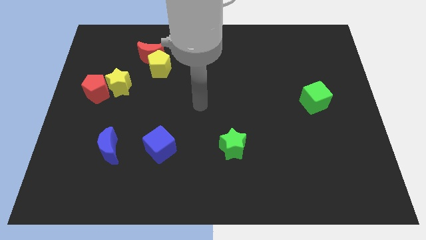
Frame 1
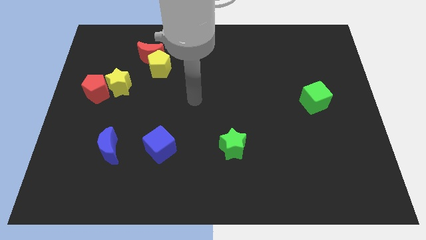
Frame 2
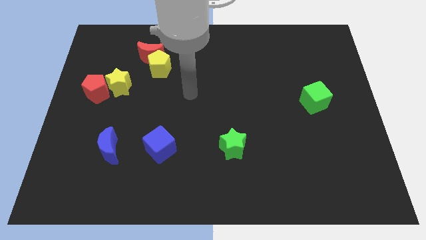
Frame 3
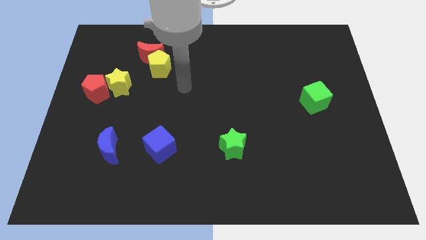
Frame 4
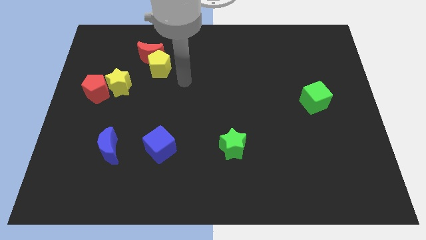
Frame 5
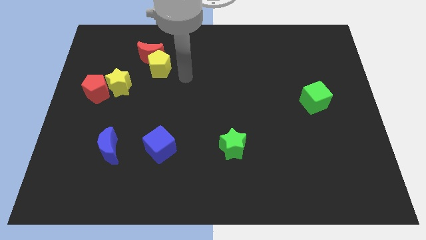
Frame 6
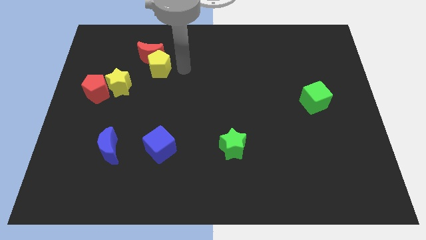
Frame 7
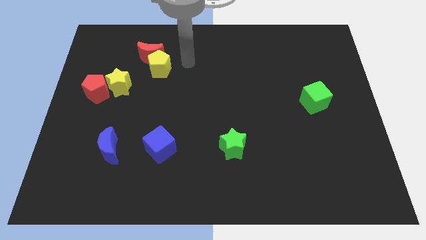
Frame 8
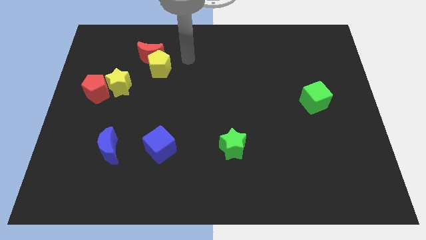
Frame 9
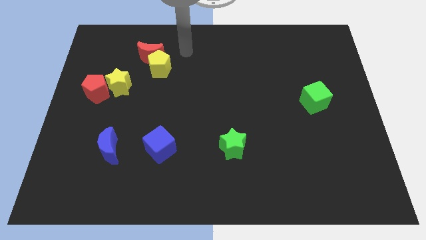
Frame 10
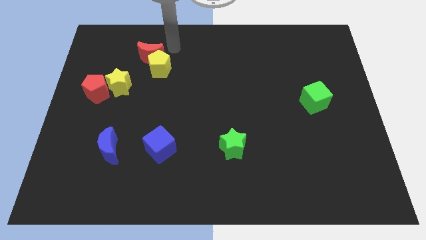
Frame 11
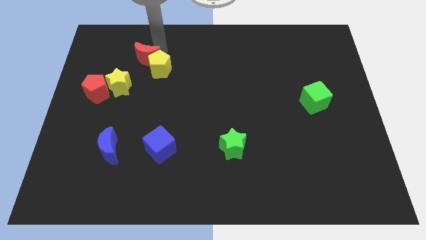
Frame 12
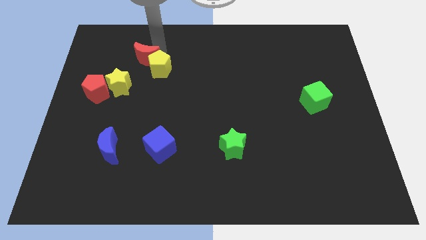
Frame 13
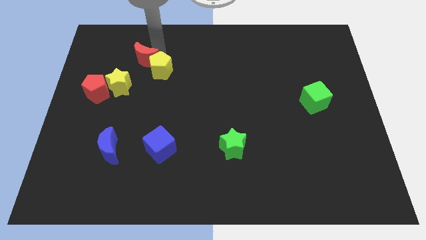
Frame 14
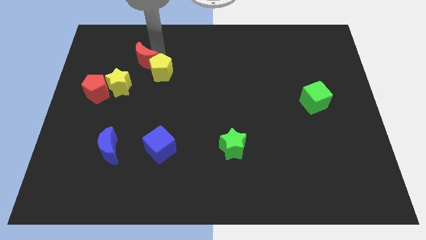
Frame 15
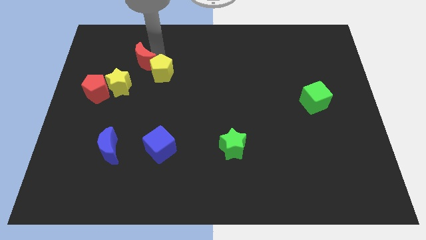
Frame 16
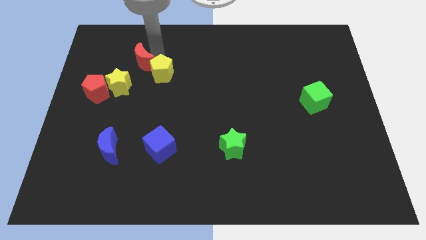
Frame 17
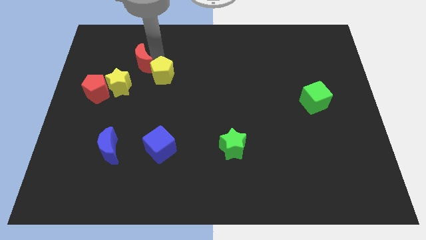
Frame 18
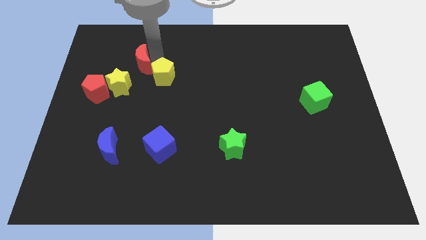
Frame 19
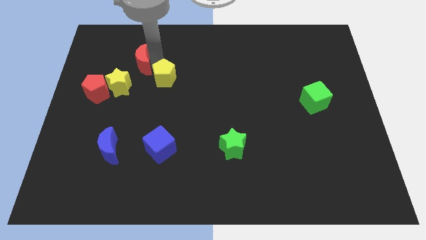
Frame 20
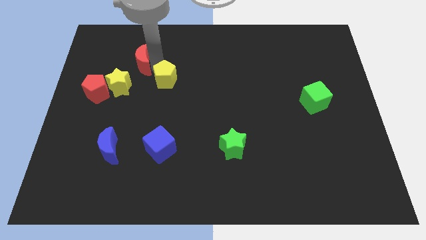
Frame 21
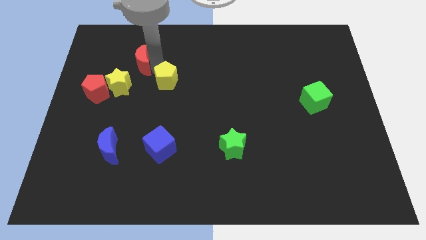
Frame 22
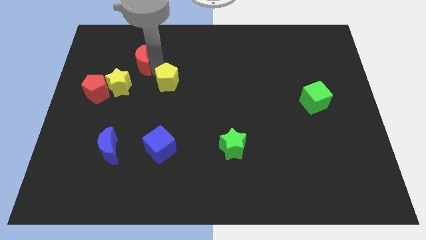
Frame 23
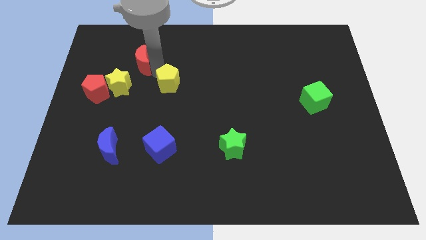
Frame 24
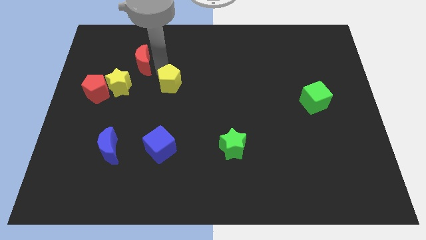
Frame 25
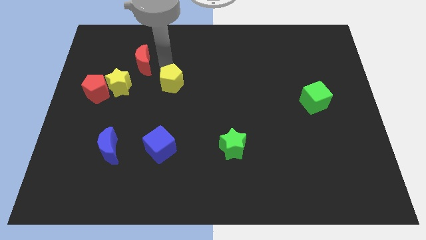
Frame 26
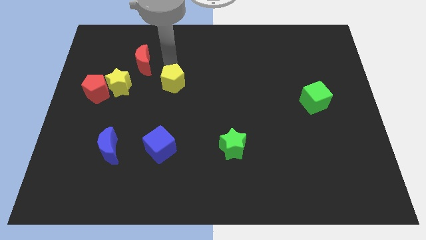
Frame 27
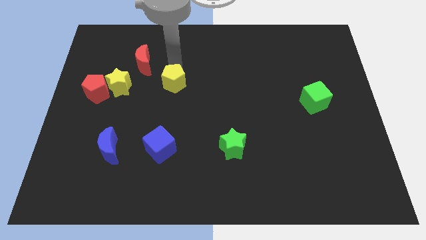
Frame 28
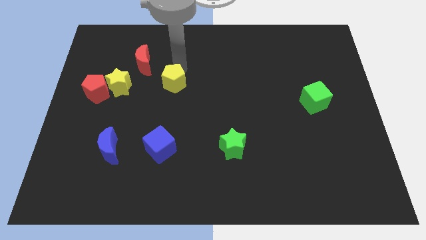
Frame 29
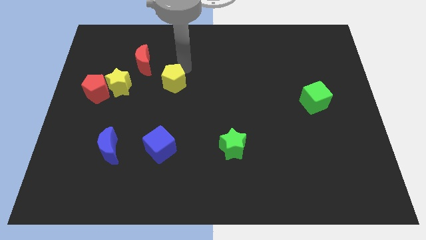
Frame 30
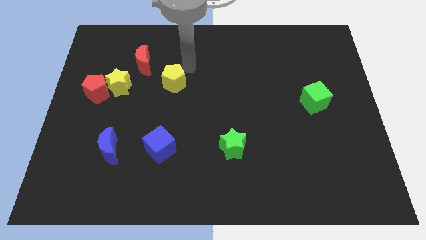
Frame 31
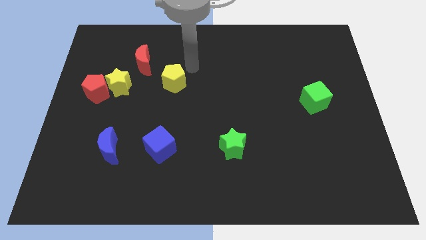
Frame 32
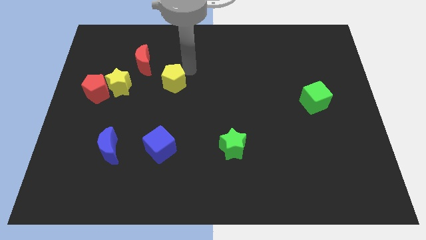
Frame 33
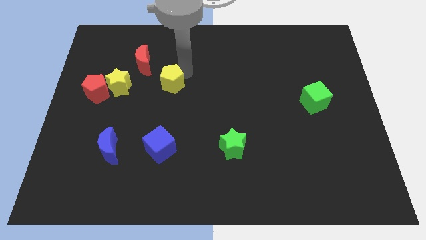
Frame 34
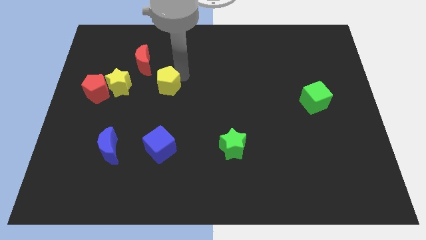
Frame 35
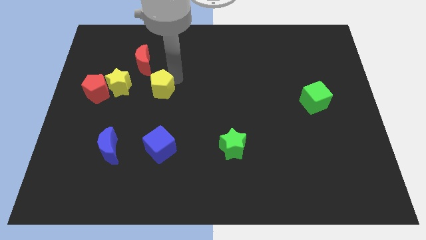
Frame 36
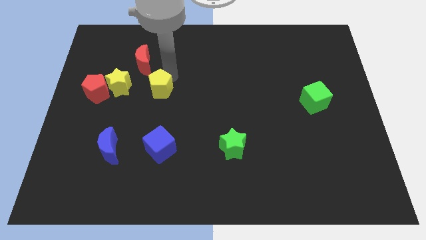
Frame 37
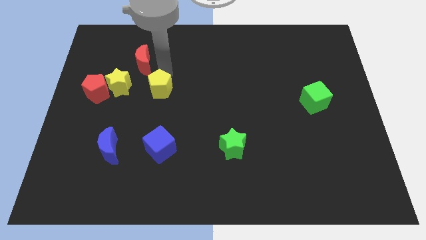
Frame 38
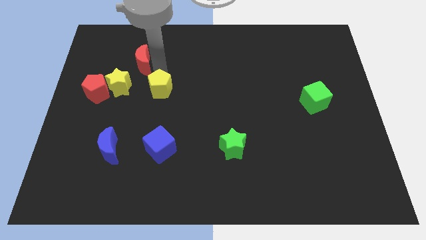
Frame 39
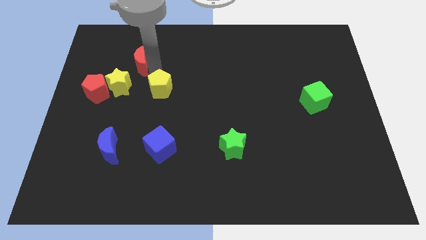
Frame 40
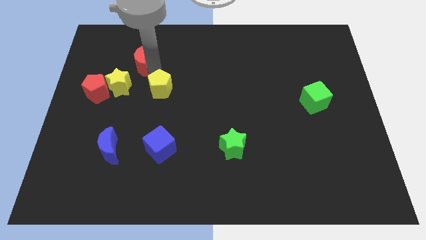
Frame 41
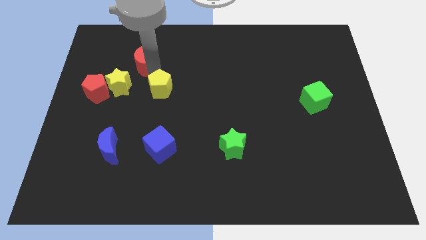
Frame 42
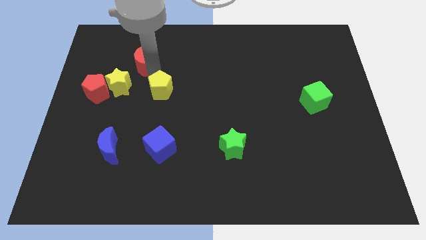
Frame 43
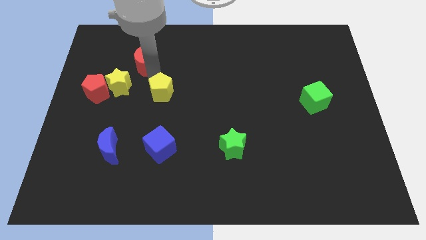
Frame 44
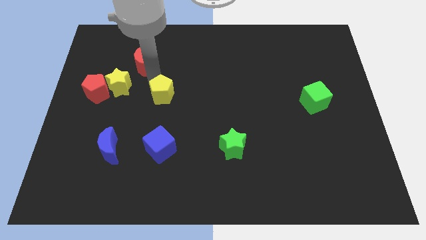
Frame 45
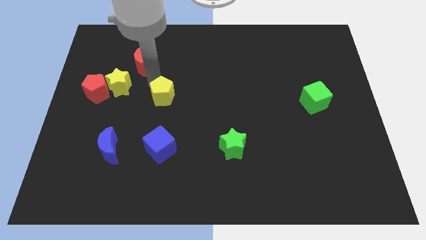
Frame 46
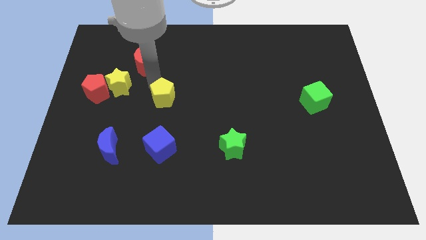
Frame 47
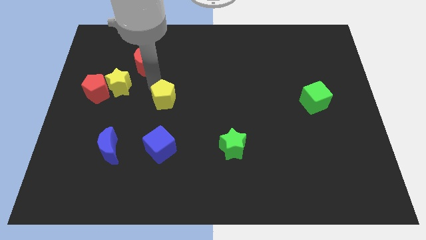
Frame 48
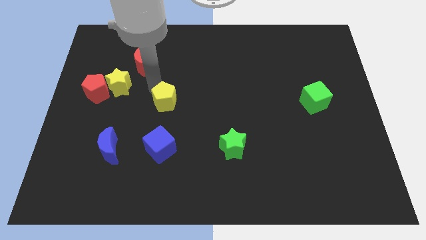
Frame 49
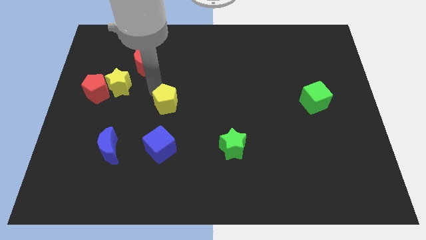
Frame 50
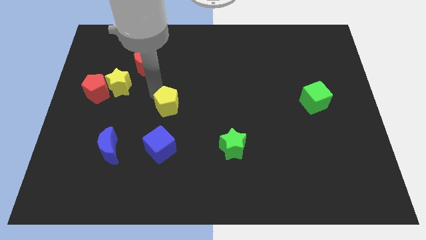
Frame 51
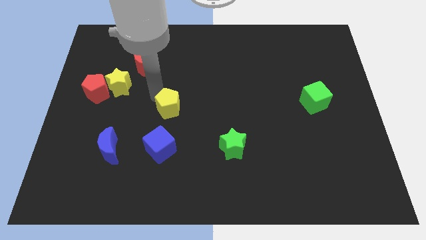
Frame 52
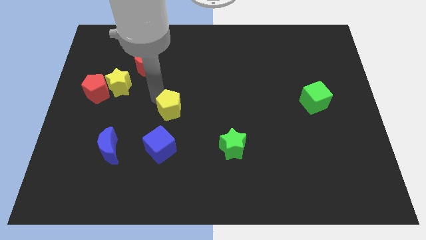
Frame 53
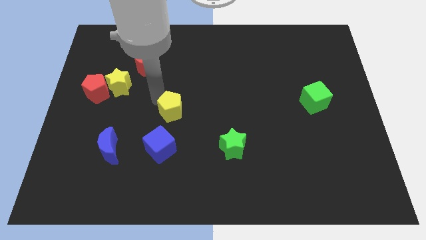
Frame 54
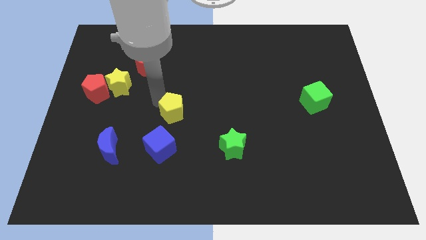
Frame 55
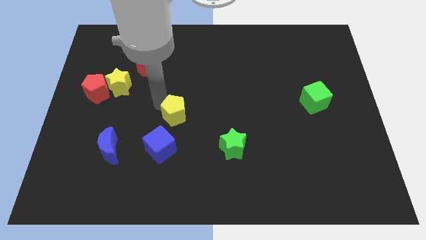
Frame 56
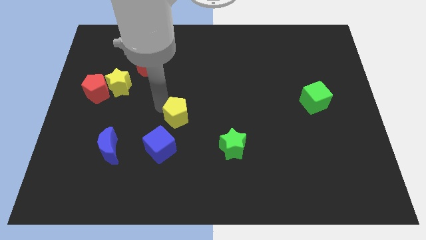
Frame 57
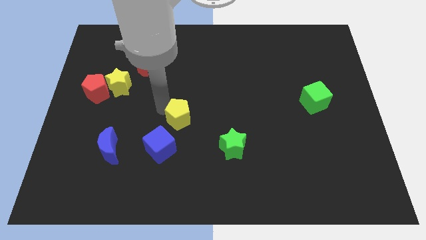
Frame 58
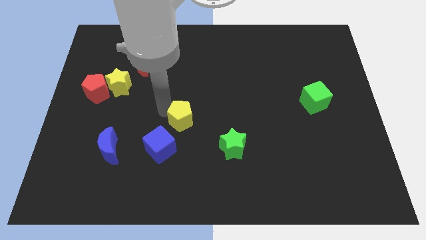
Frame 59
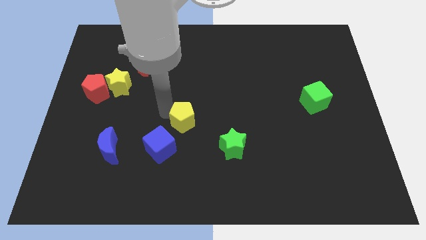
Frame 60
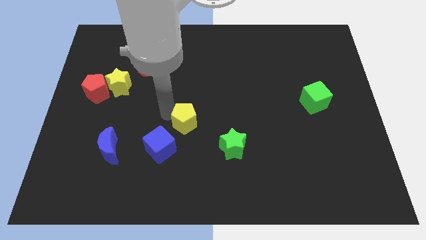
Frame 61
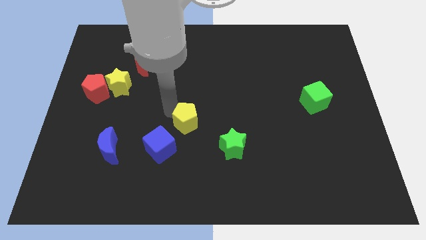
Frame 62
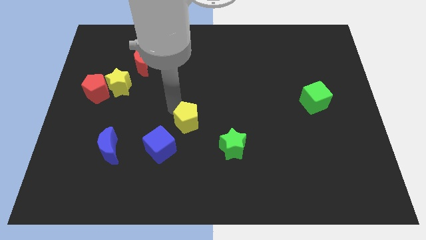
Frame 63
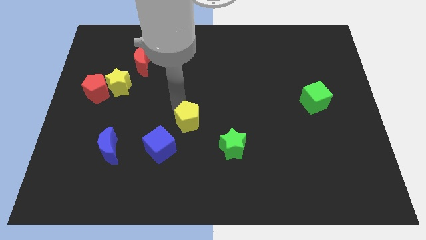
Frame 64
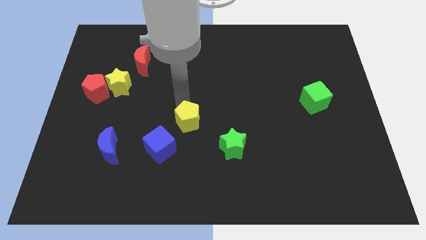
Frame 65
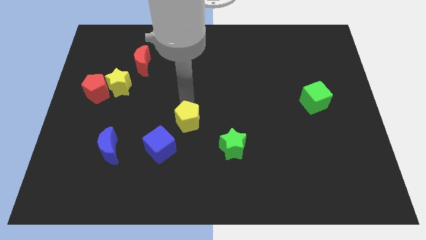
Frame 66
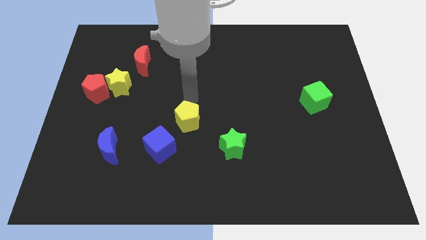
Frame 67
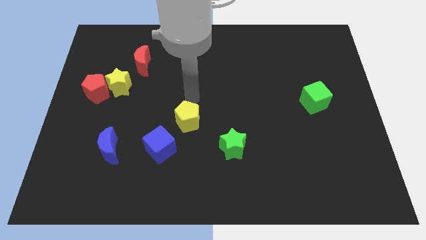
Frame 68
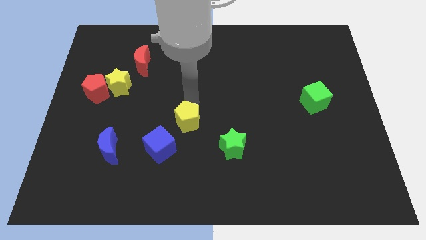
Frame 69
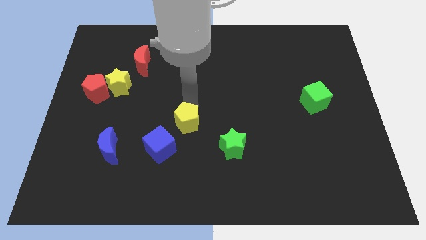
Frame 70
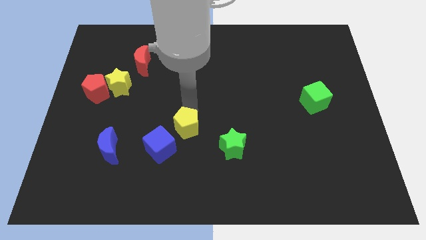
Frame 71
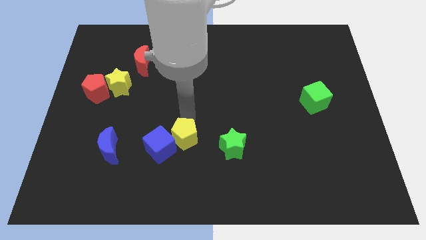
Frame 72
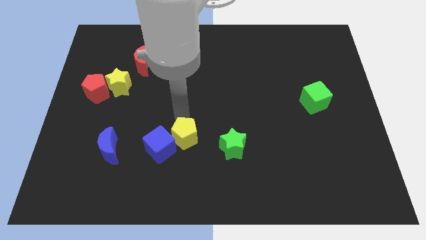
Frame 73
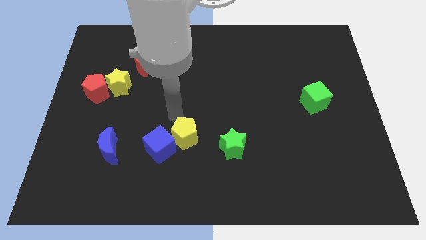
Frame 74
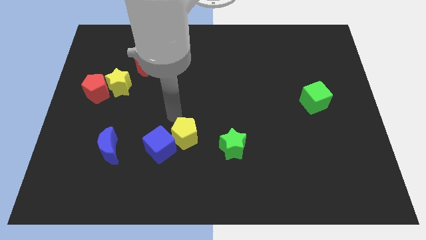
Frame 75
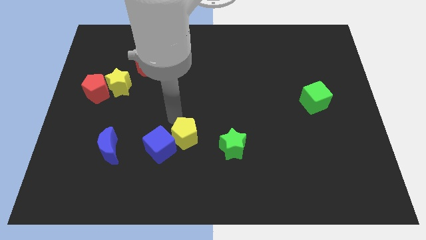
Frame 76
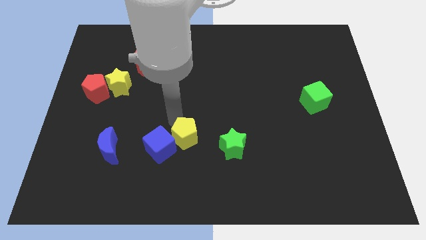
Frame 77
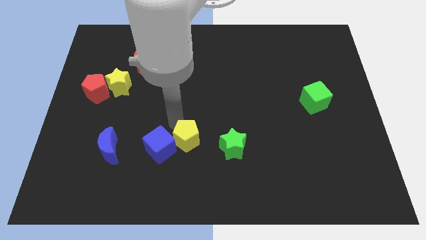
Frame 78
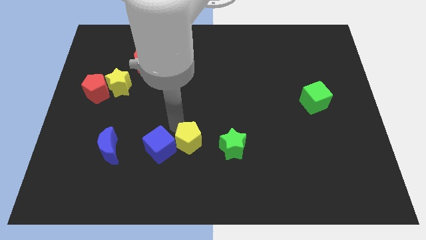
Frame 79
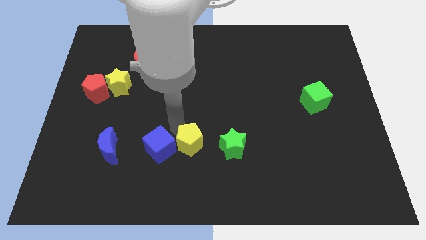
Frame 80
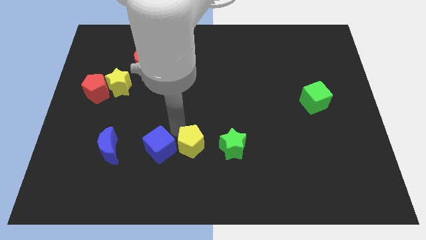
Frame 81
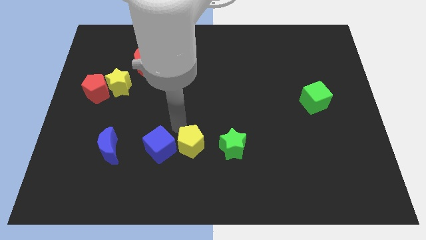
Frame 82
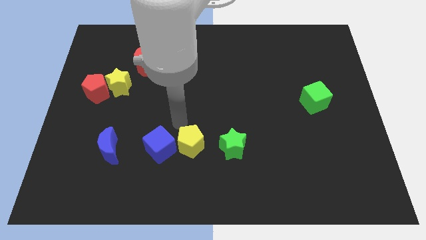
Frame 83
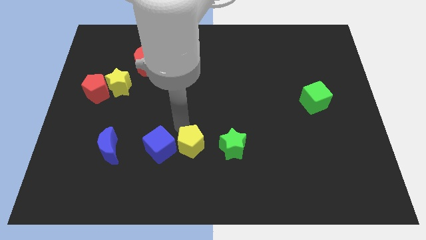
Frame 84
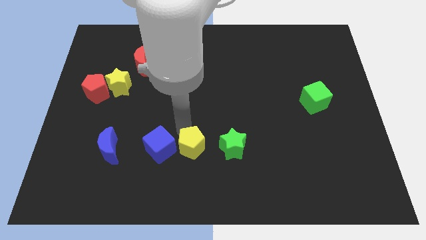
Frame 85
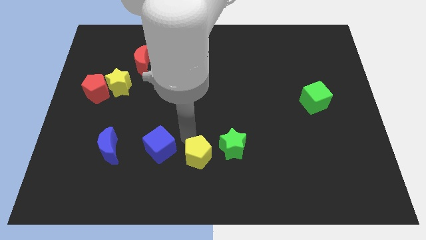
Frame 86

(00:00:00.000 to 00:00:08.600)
slide the yellow pentagon to the bottom
